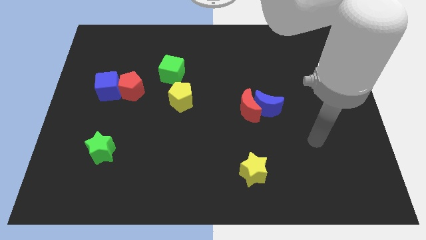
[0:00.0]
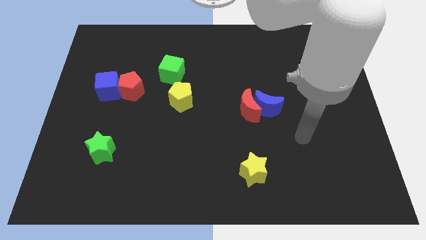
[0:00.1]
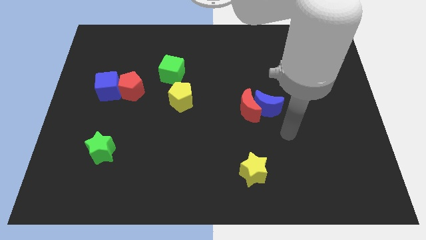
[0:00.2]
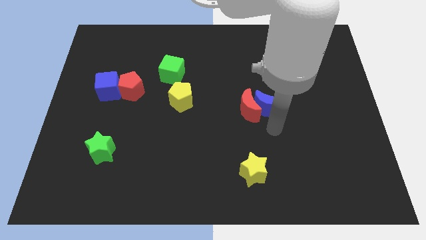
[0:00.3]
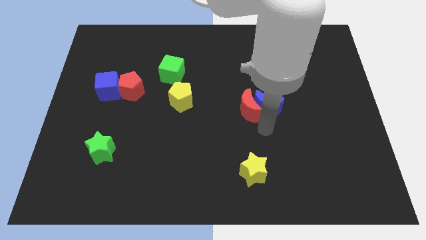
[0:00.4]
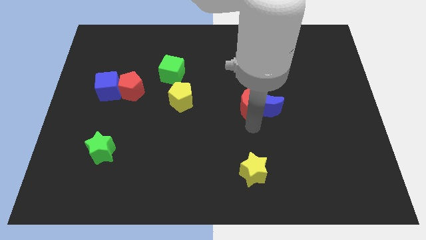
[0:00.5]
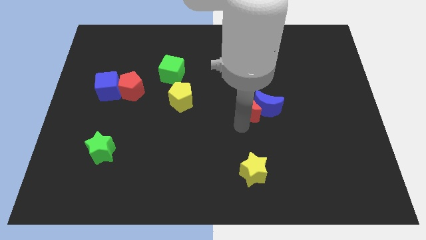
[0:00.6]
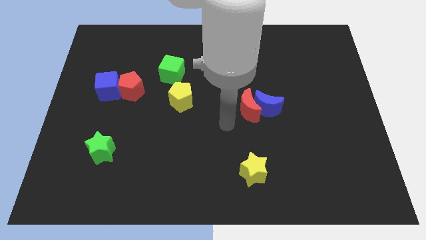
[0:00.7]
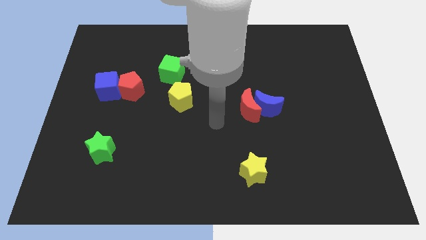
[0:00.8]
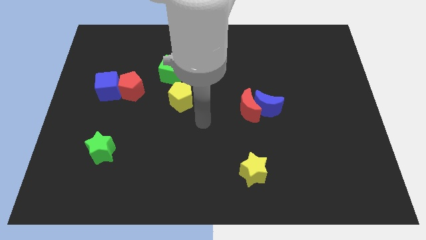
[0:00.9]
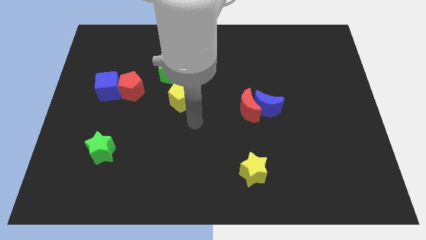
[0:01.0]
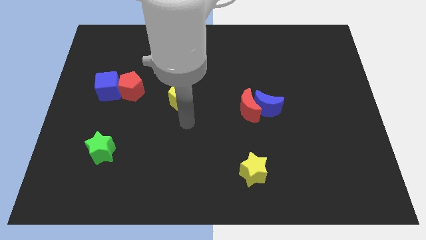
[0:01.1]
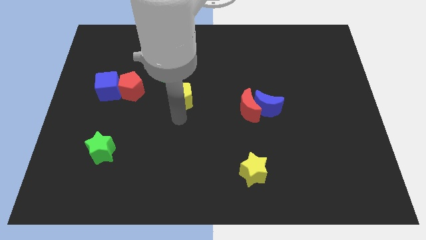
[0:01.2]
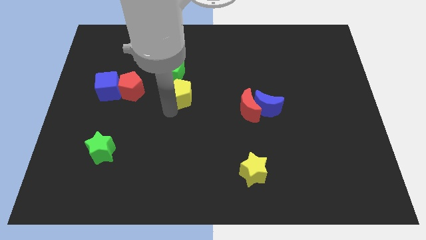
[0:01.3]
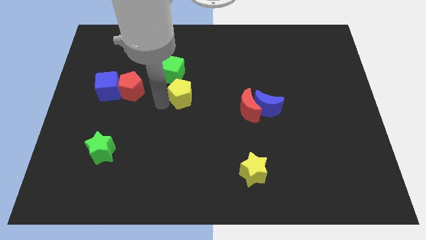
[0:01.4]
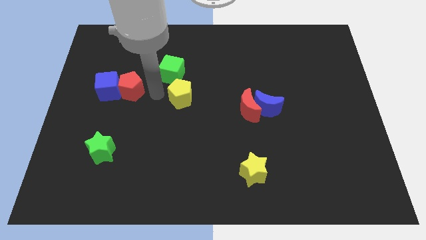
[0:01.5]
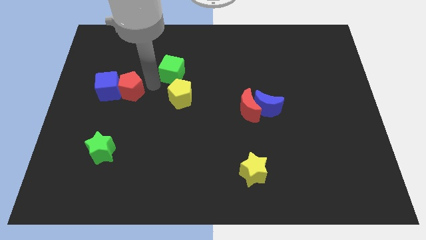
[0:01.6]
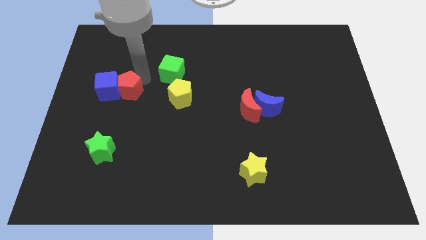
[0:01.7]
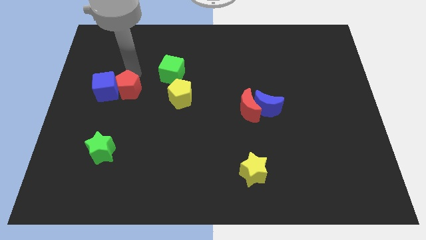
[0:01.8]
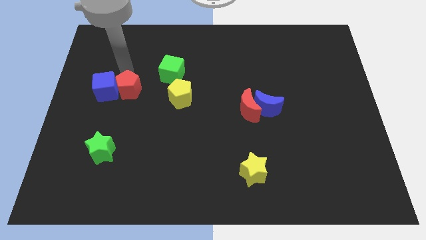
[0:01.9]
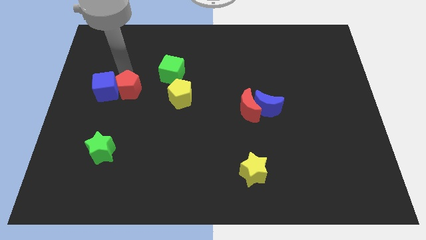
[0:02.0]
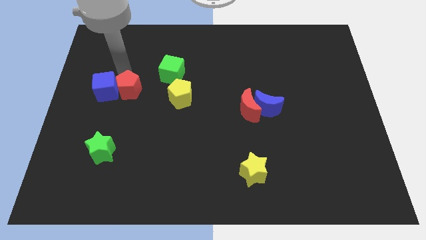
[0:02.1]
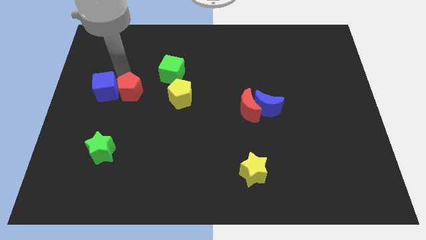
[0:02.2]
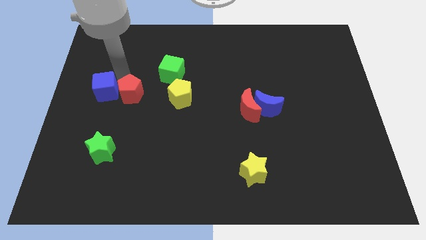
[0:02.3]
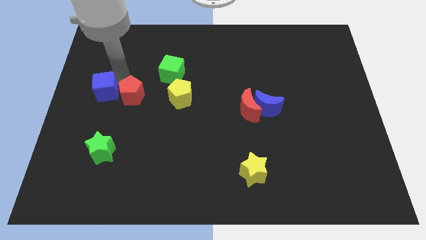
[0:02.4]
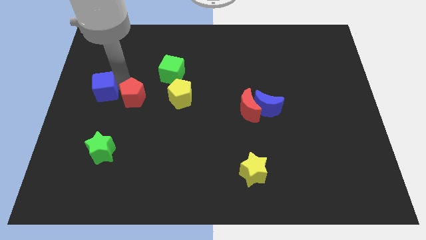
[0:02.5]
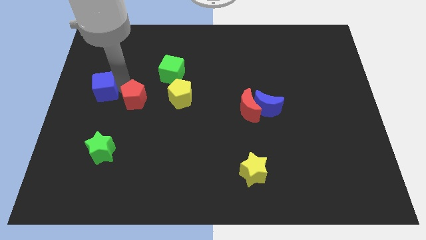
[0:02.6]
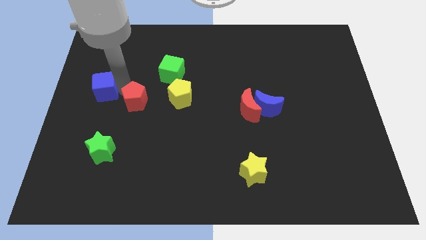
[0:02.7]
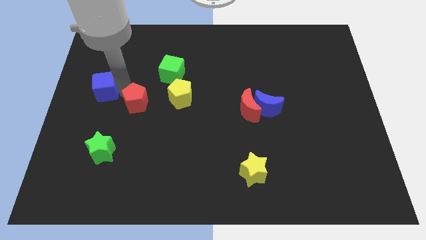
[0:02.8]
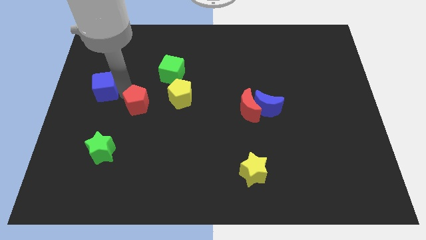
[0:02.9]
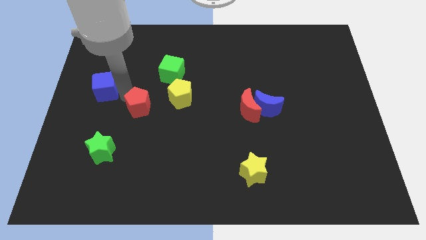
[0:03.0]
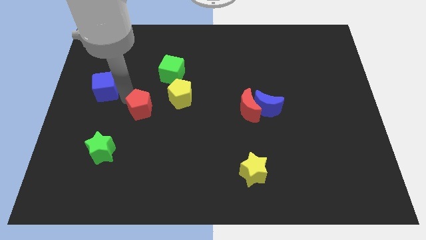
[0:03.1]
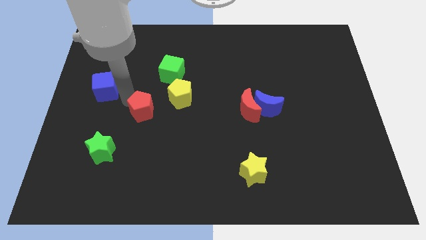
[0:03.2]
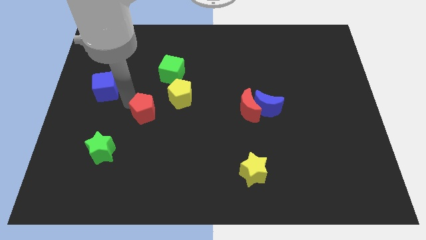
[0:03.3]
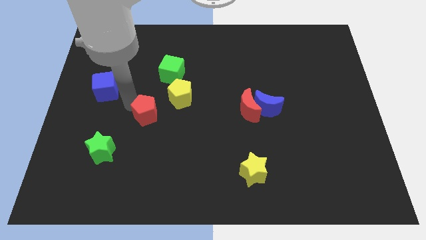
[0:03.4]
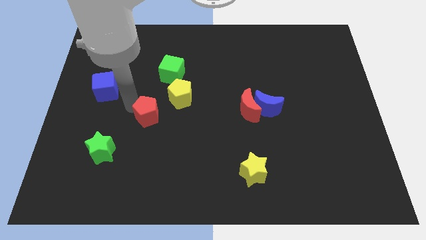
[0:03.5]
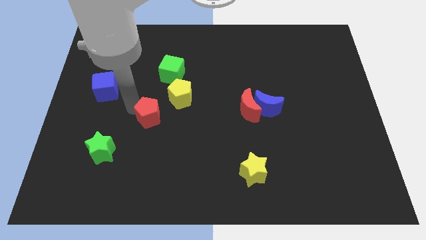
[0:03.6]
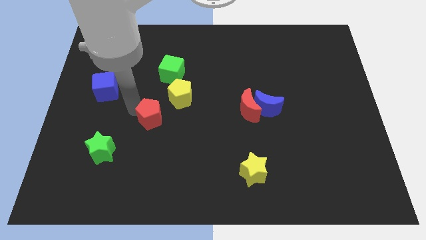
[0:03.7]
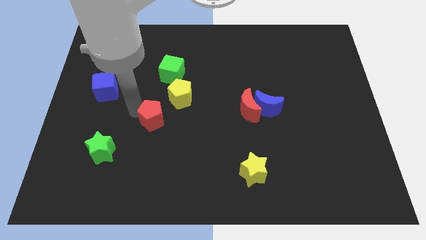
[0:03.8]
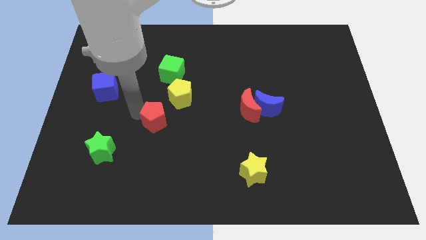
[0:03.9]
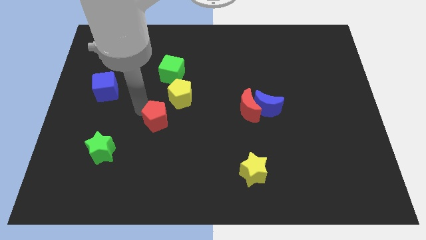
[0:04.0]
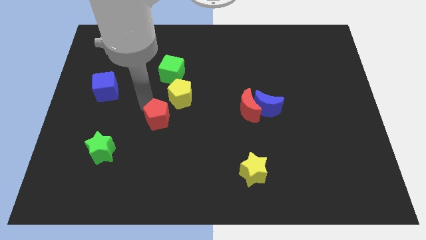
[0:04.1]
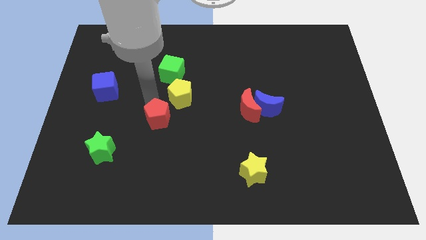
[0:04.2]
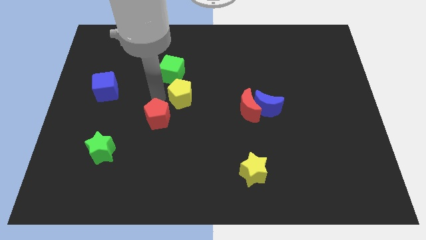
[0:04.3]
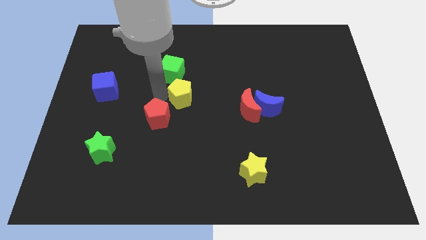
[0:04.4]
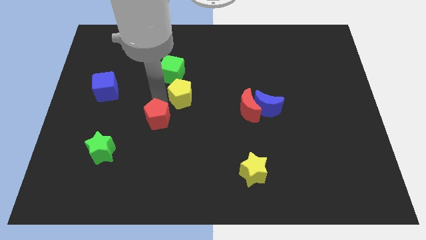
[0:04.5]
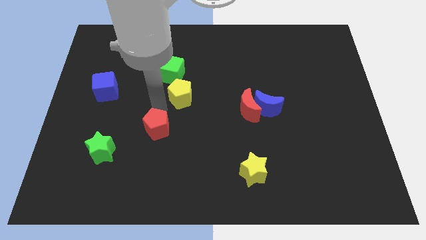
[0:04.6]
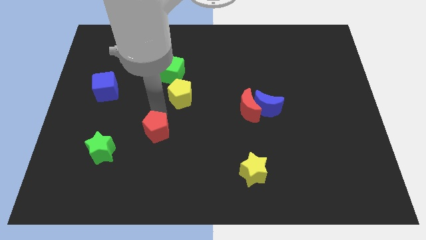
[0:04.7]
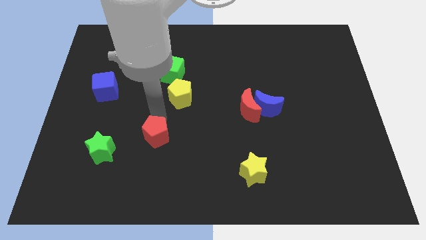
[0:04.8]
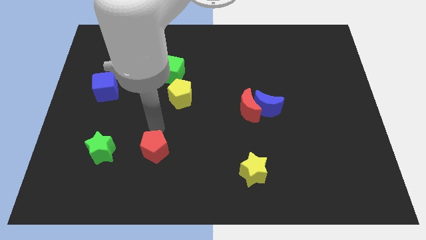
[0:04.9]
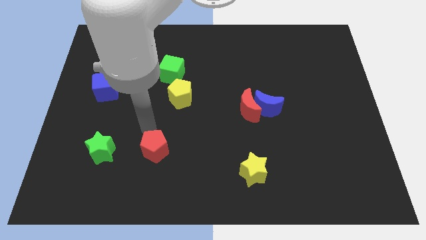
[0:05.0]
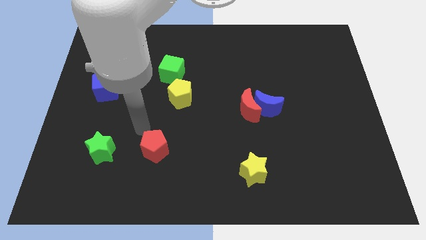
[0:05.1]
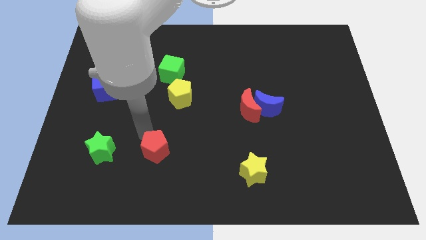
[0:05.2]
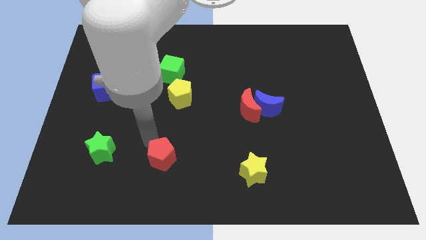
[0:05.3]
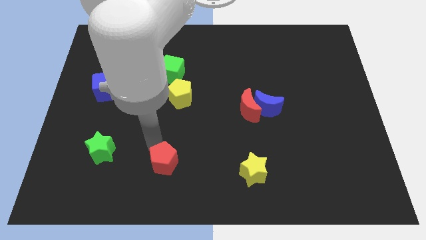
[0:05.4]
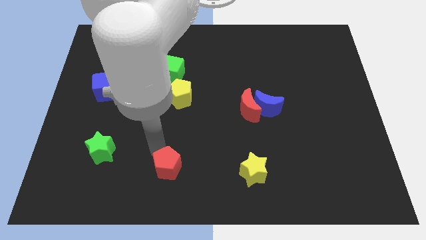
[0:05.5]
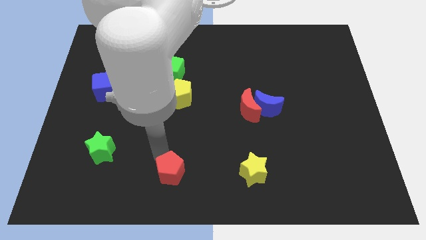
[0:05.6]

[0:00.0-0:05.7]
push the red pentagon to the bottom side

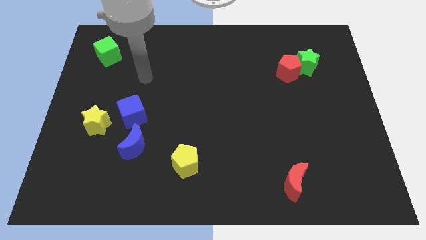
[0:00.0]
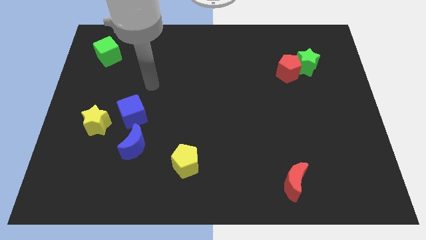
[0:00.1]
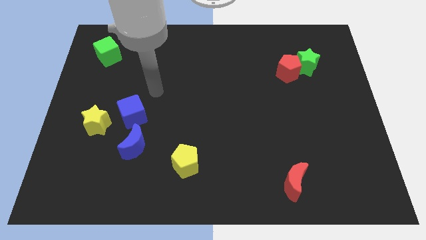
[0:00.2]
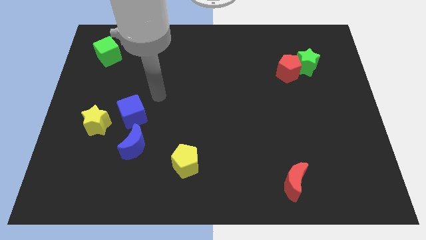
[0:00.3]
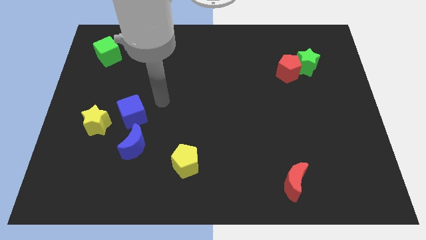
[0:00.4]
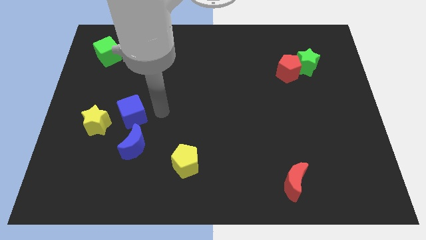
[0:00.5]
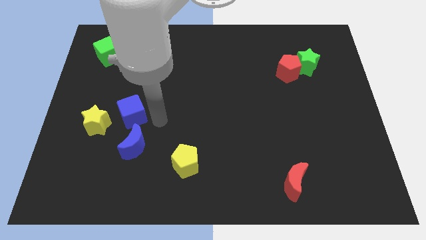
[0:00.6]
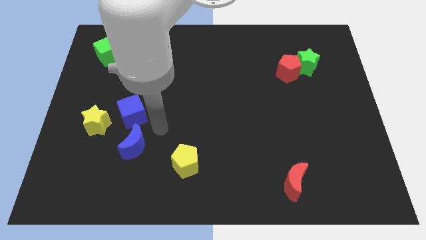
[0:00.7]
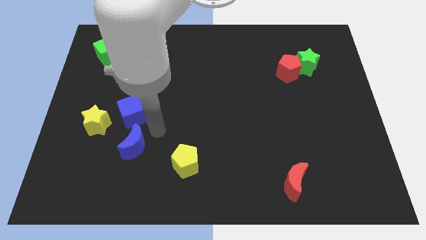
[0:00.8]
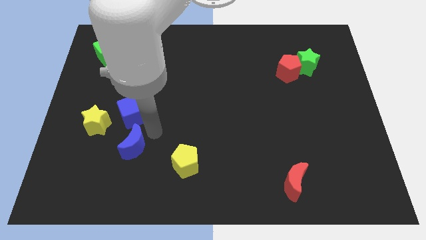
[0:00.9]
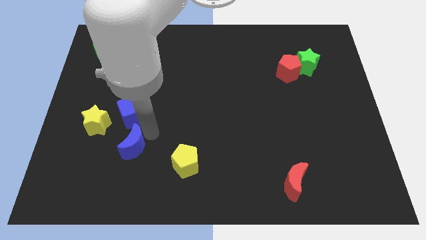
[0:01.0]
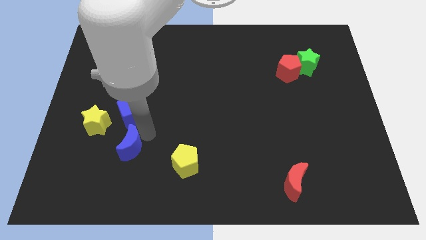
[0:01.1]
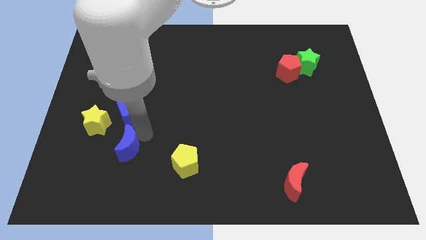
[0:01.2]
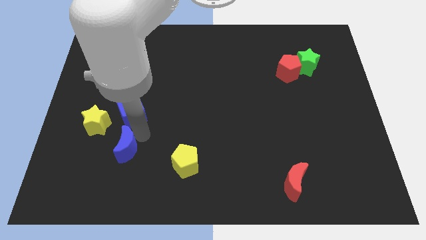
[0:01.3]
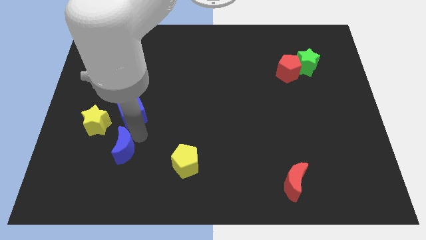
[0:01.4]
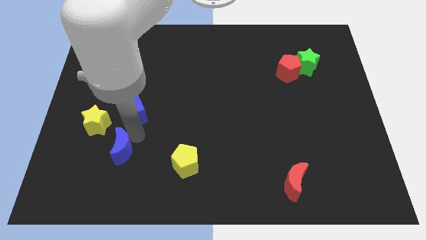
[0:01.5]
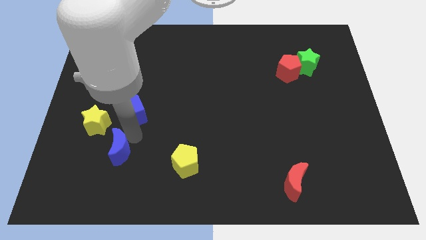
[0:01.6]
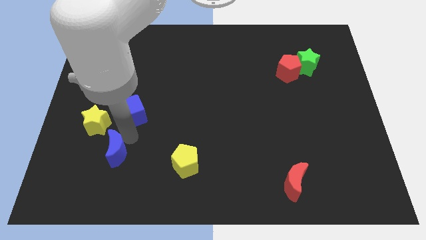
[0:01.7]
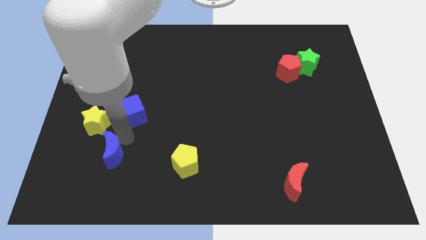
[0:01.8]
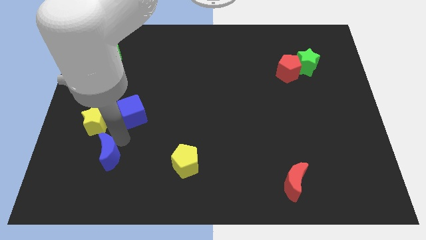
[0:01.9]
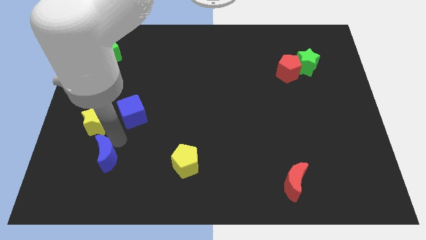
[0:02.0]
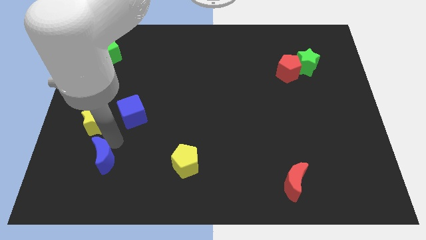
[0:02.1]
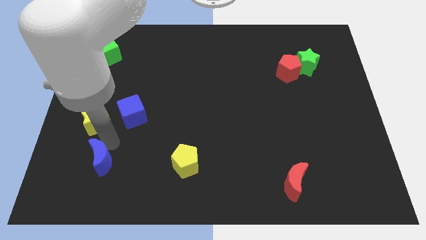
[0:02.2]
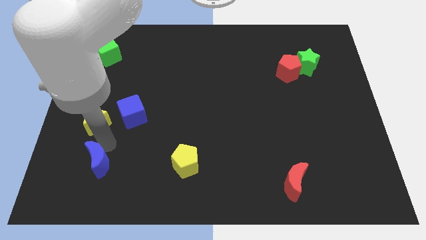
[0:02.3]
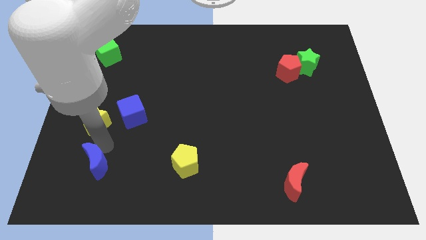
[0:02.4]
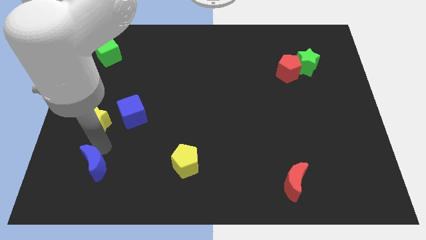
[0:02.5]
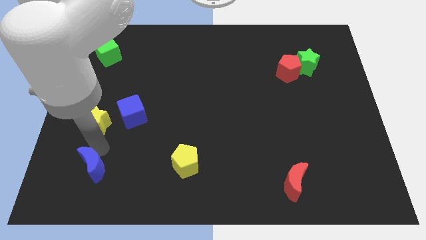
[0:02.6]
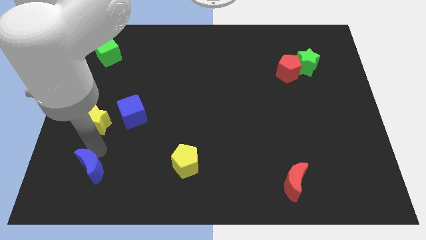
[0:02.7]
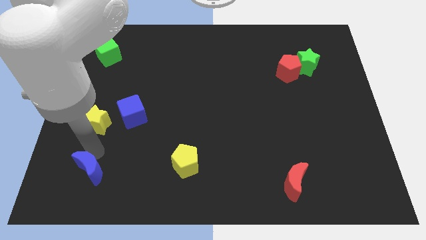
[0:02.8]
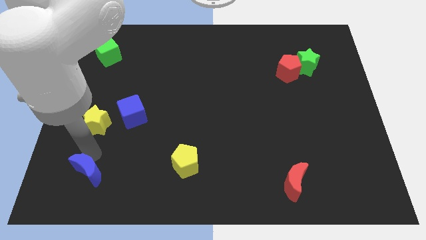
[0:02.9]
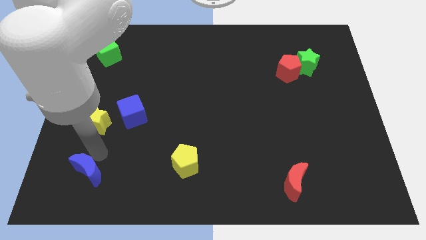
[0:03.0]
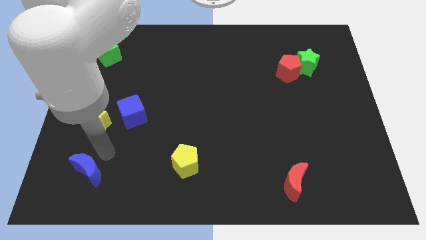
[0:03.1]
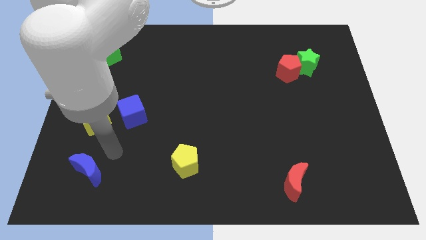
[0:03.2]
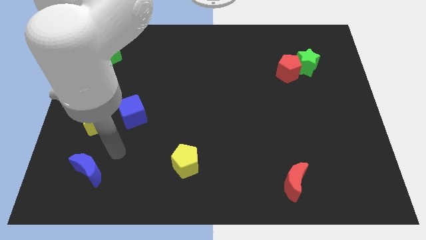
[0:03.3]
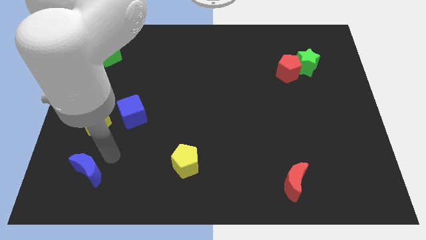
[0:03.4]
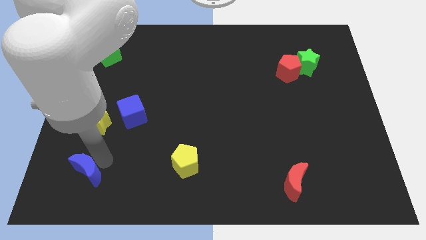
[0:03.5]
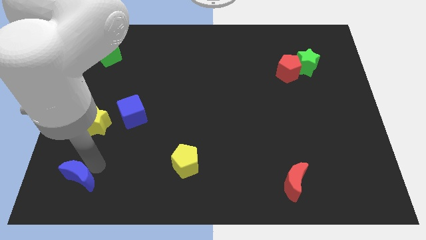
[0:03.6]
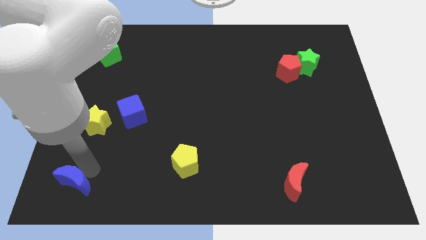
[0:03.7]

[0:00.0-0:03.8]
slide the blue moon to the bottom left of the board
